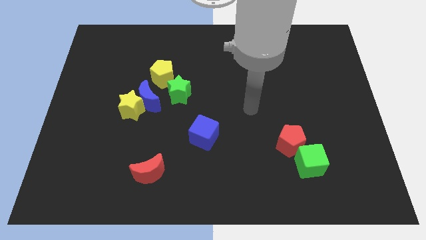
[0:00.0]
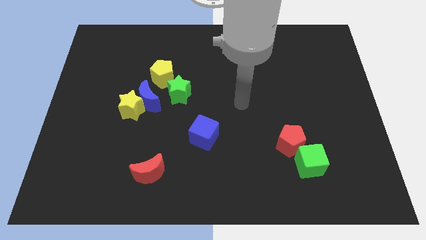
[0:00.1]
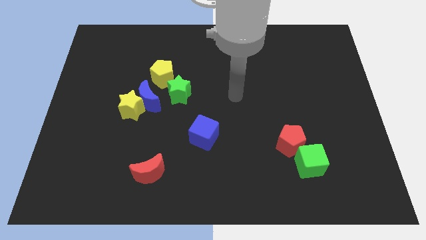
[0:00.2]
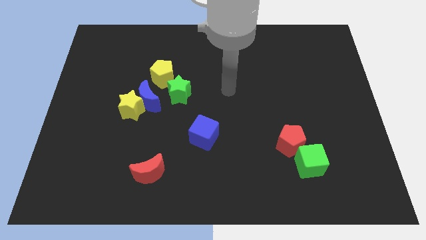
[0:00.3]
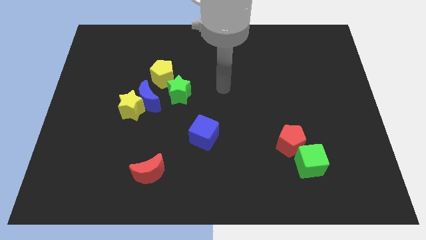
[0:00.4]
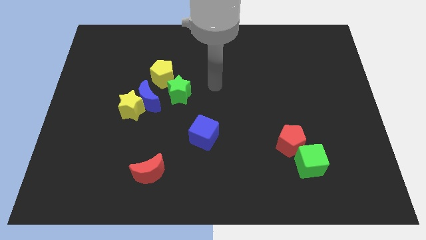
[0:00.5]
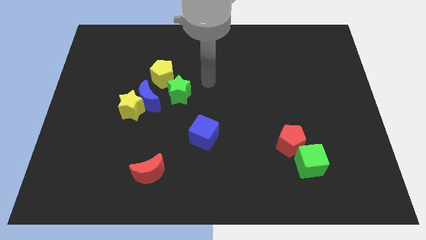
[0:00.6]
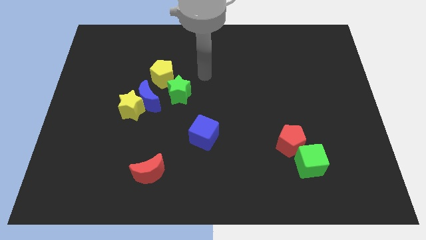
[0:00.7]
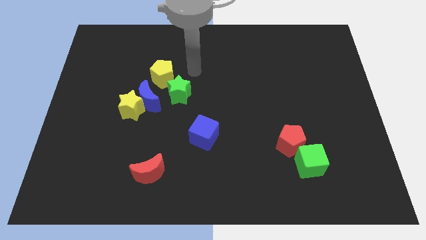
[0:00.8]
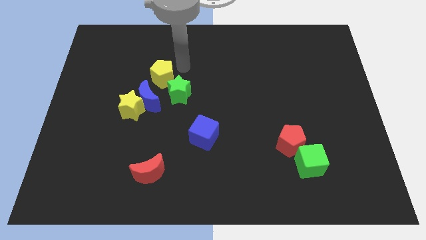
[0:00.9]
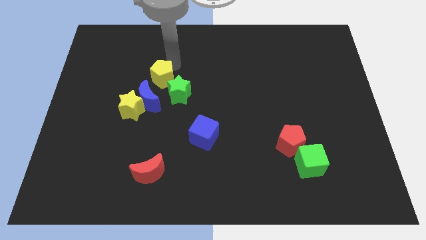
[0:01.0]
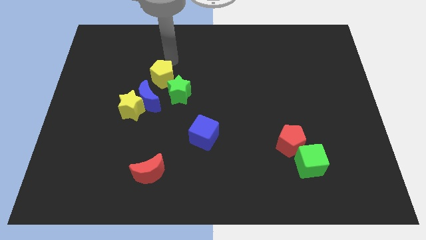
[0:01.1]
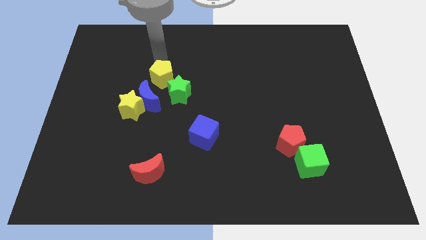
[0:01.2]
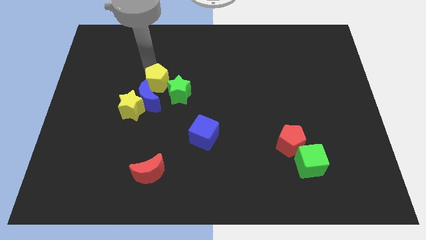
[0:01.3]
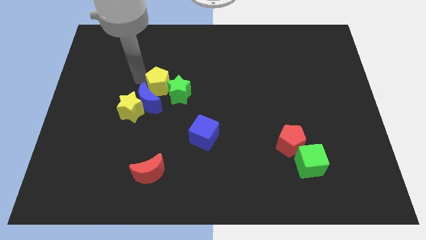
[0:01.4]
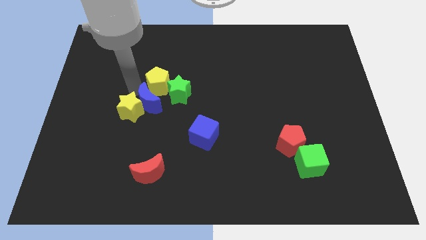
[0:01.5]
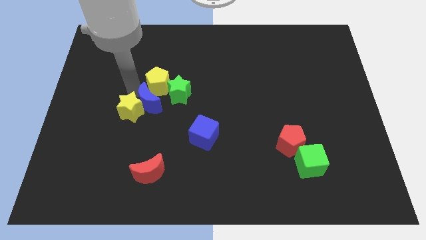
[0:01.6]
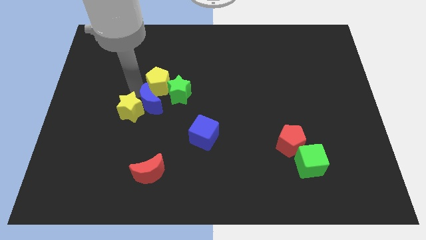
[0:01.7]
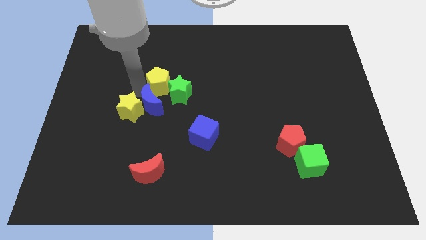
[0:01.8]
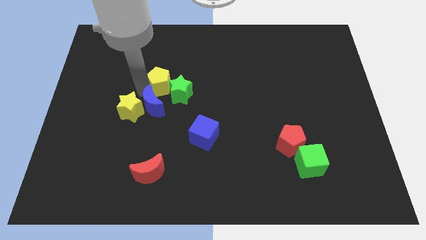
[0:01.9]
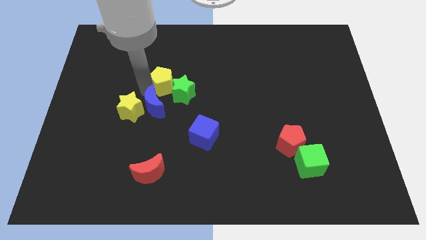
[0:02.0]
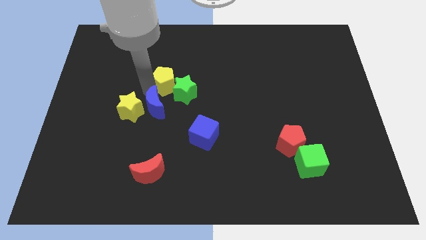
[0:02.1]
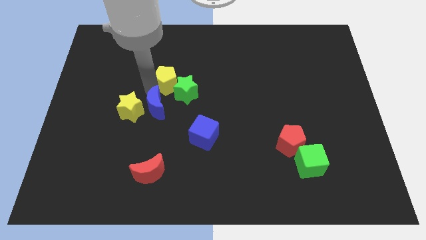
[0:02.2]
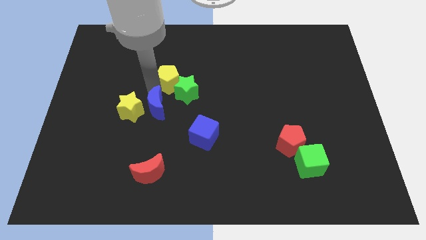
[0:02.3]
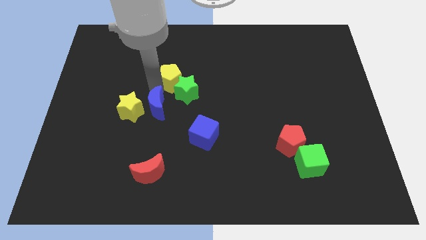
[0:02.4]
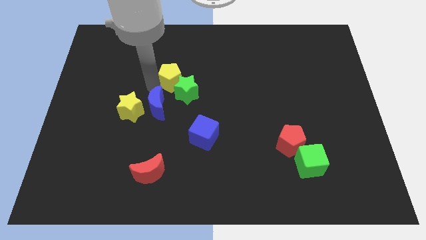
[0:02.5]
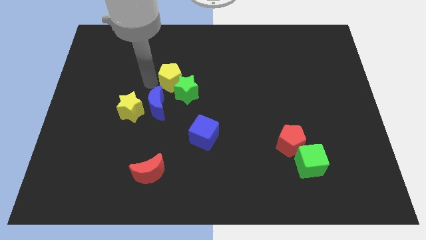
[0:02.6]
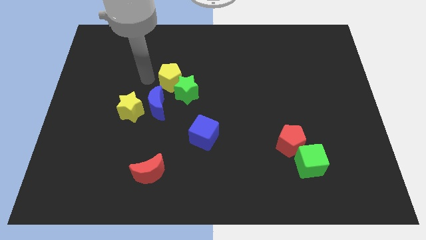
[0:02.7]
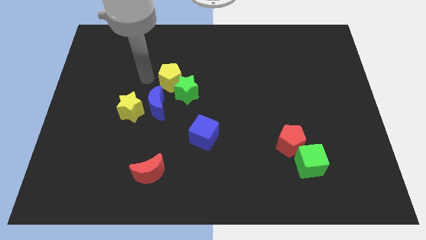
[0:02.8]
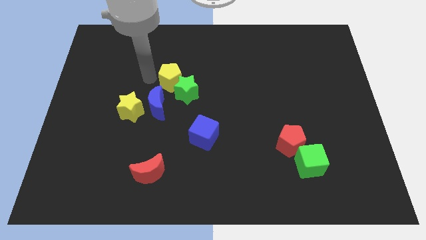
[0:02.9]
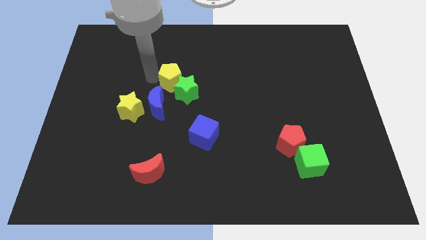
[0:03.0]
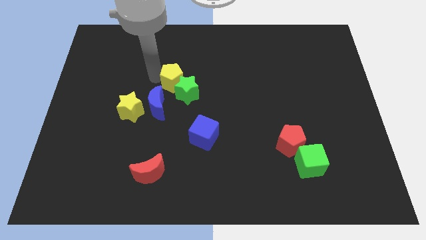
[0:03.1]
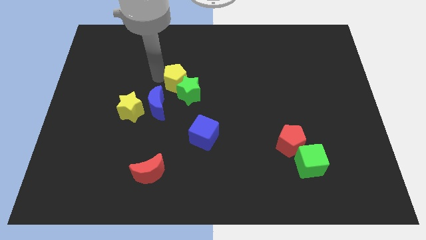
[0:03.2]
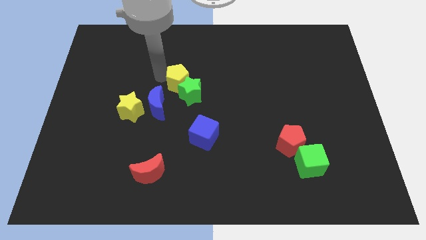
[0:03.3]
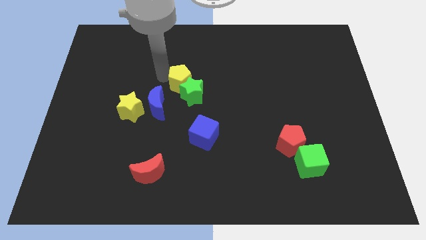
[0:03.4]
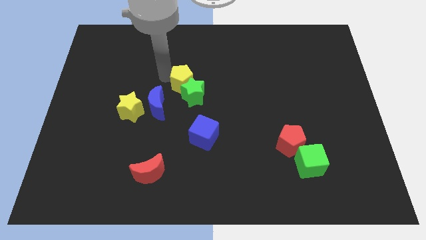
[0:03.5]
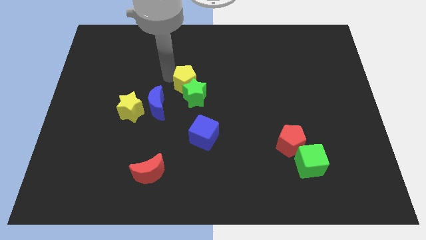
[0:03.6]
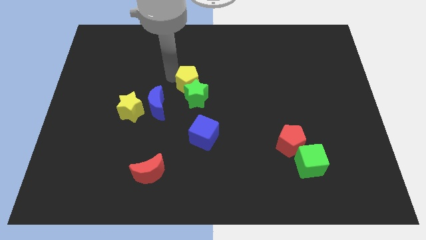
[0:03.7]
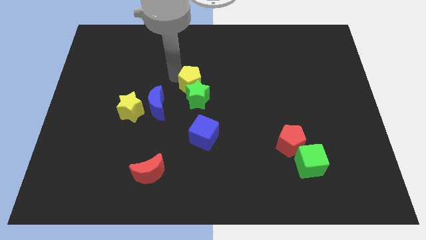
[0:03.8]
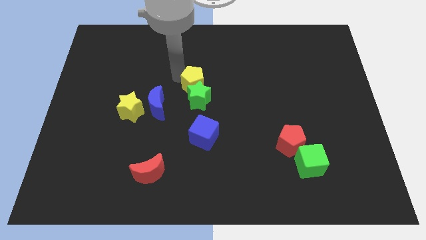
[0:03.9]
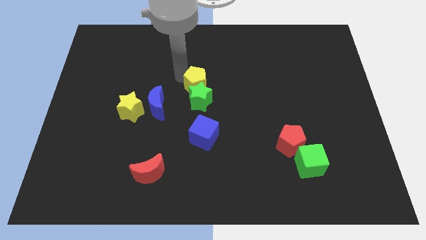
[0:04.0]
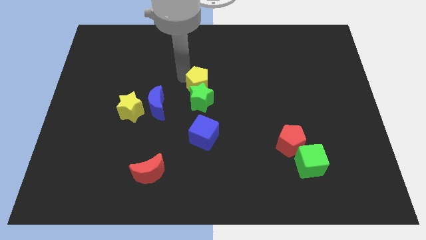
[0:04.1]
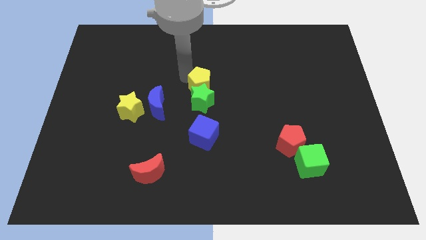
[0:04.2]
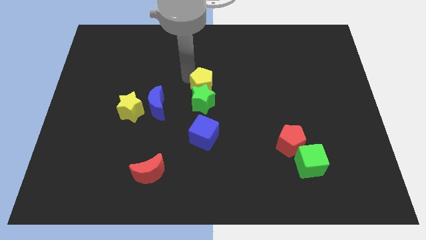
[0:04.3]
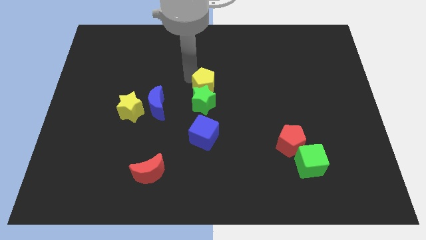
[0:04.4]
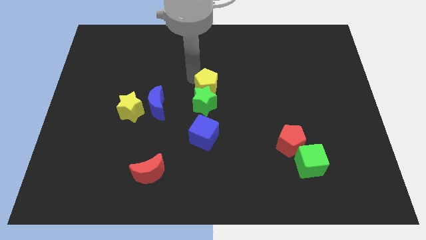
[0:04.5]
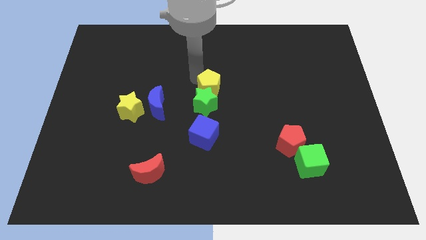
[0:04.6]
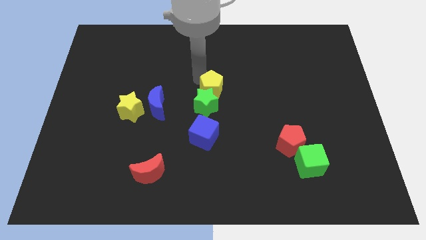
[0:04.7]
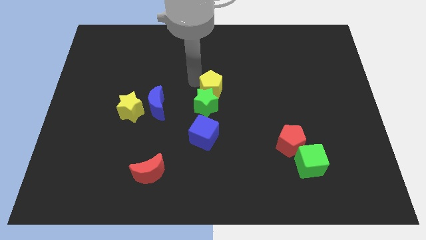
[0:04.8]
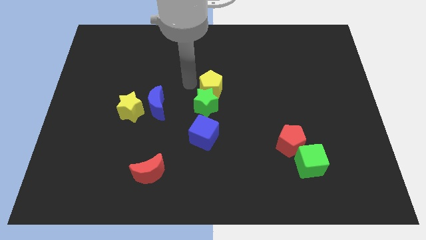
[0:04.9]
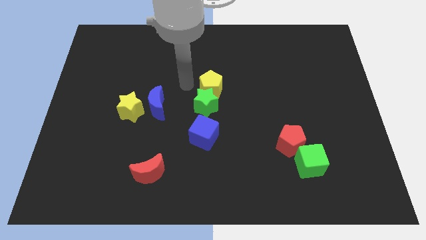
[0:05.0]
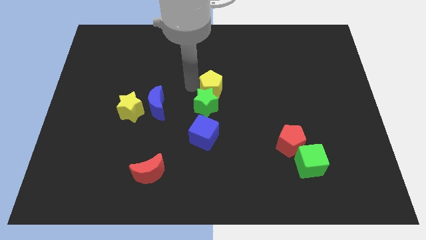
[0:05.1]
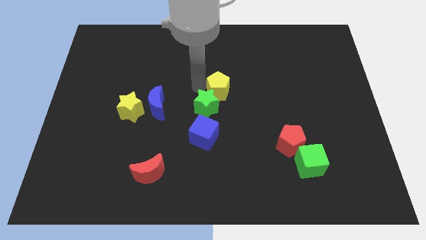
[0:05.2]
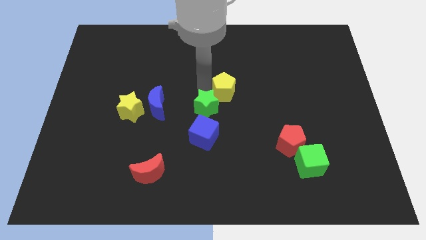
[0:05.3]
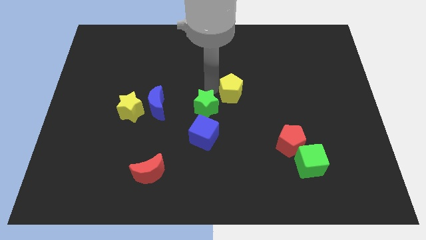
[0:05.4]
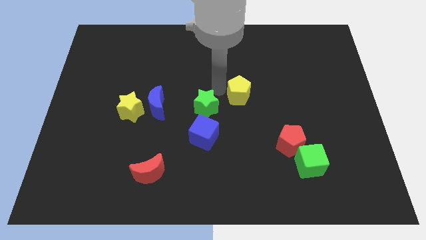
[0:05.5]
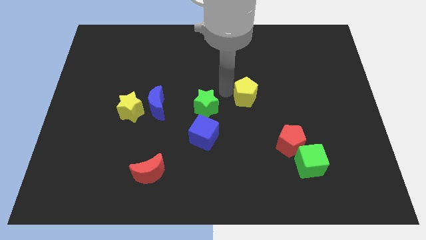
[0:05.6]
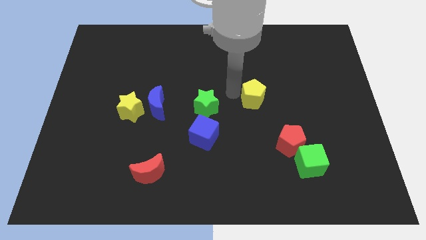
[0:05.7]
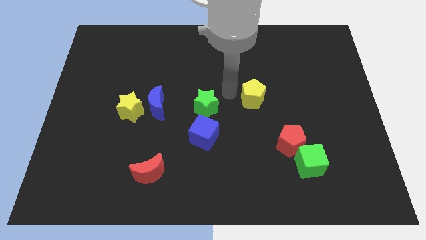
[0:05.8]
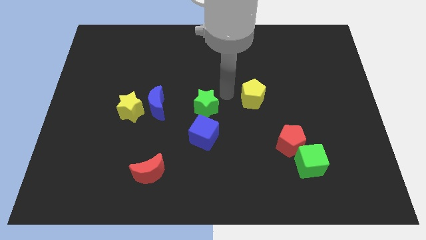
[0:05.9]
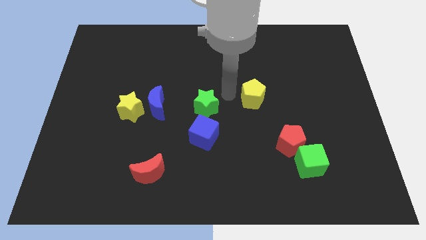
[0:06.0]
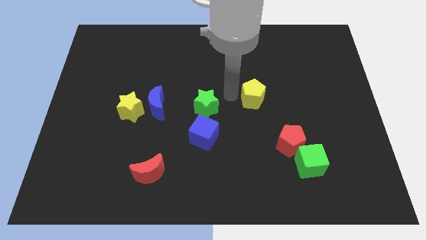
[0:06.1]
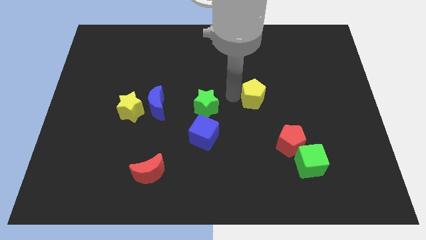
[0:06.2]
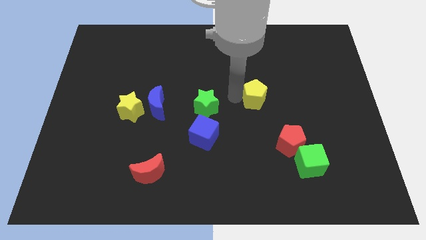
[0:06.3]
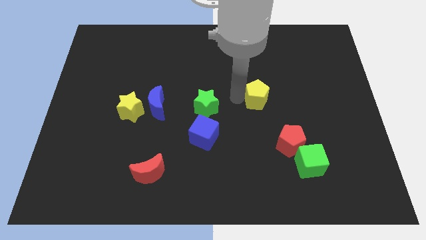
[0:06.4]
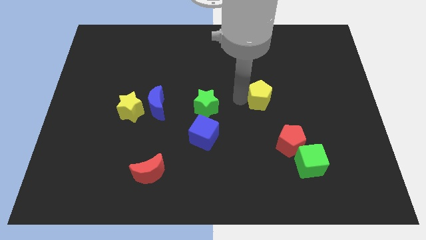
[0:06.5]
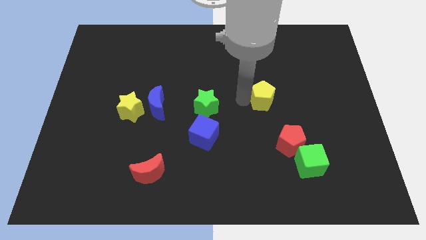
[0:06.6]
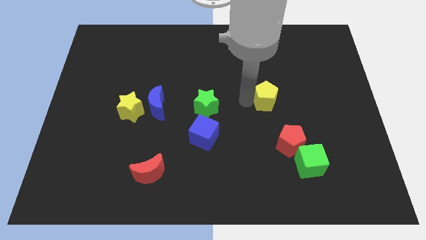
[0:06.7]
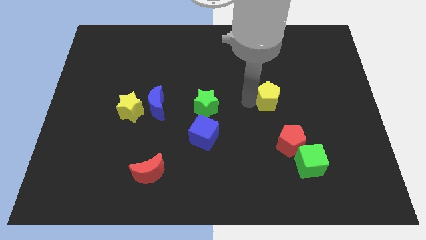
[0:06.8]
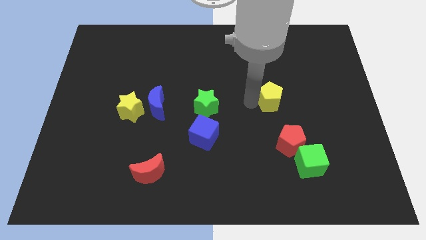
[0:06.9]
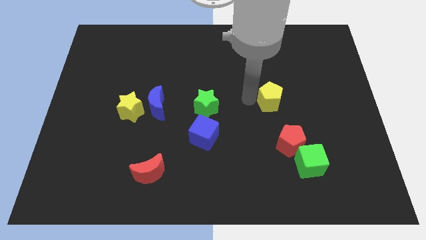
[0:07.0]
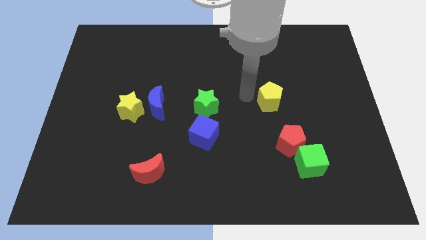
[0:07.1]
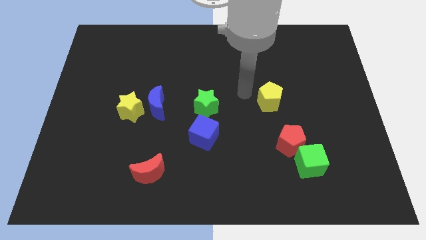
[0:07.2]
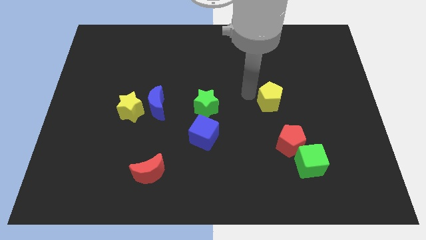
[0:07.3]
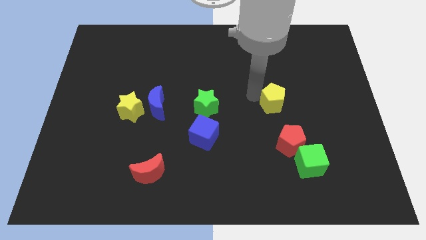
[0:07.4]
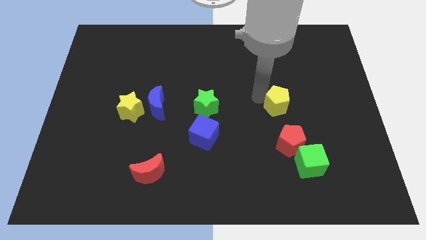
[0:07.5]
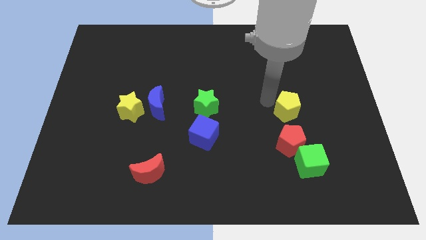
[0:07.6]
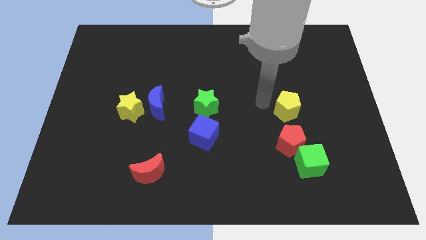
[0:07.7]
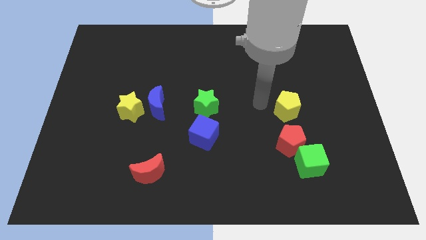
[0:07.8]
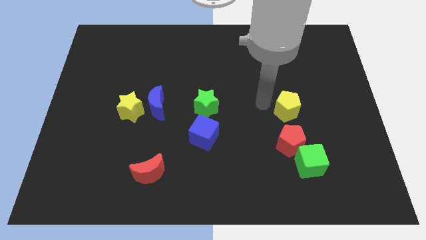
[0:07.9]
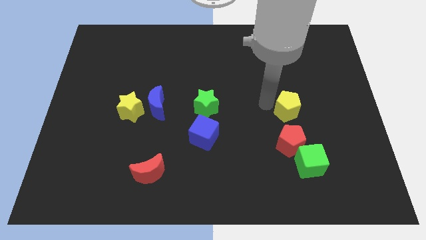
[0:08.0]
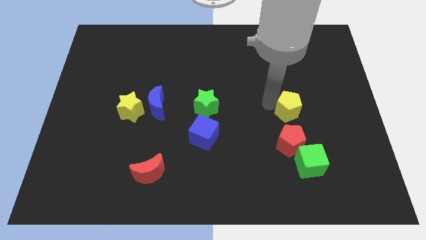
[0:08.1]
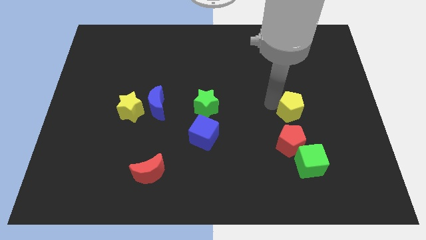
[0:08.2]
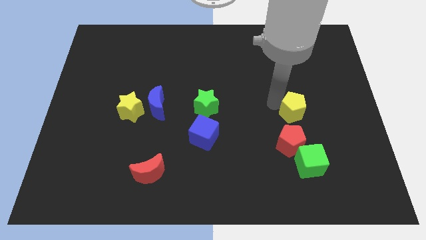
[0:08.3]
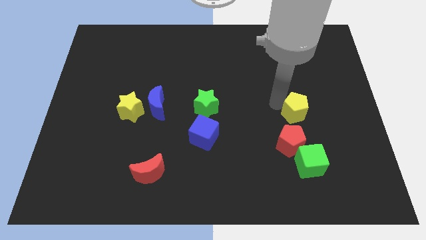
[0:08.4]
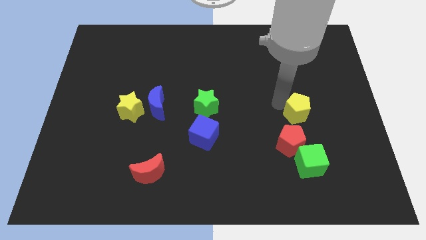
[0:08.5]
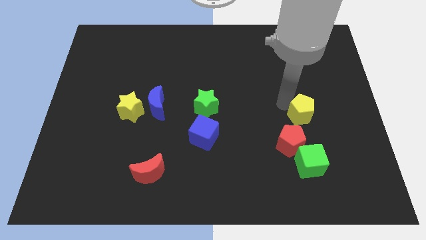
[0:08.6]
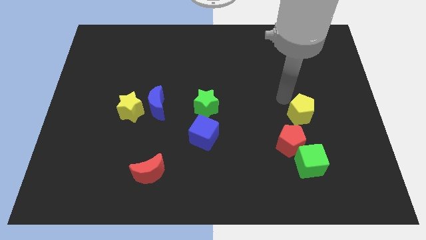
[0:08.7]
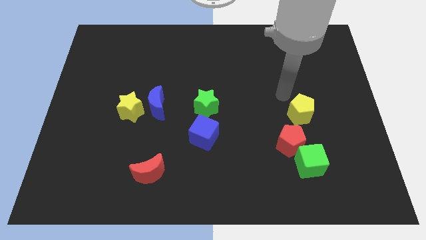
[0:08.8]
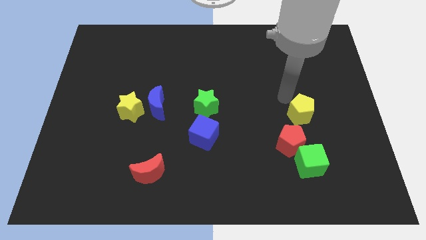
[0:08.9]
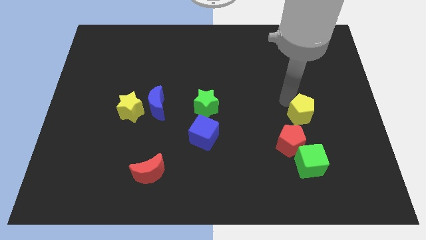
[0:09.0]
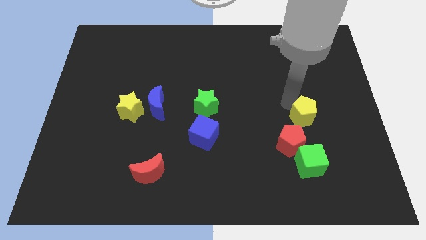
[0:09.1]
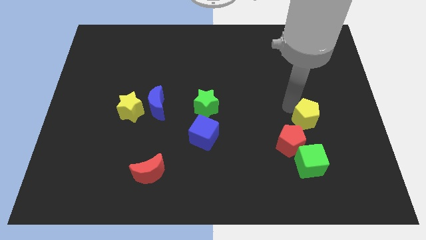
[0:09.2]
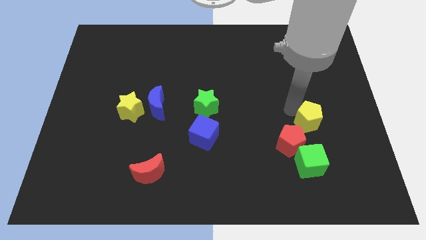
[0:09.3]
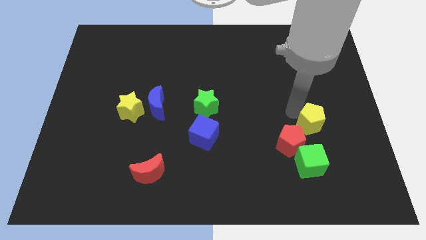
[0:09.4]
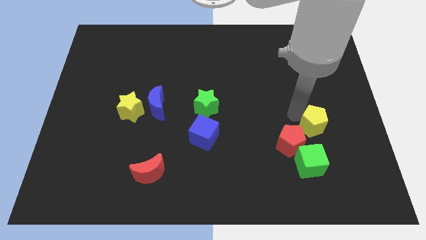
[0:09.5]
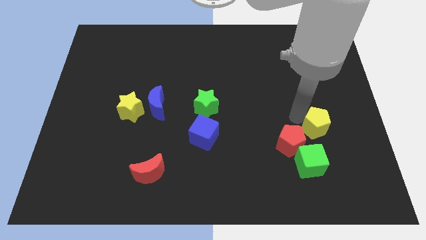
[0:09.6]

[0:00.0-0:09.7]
slide the yellow pentagon to the top right of the green cube
